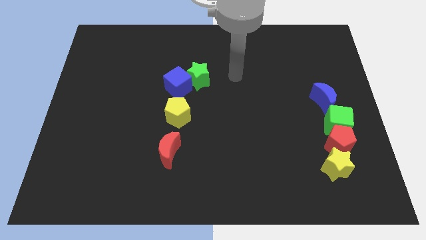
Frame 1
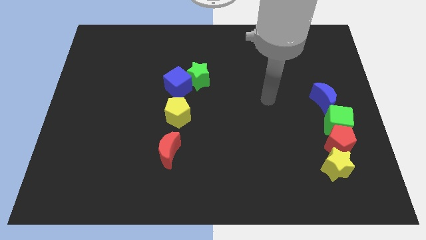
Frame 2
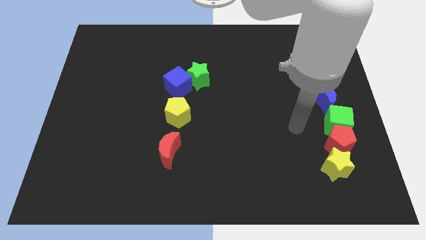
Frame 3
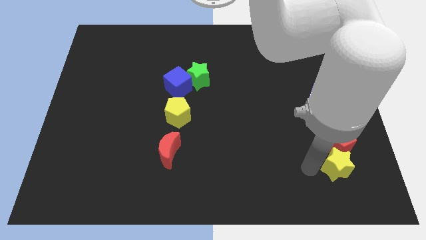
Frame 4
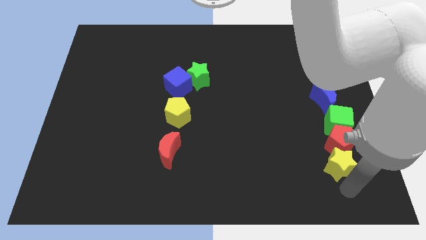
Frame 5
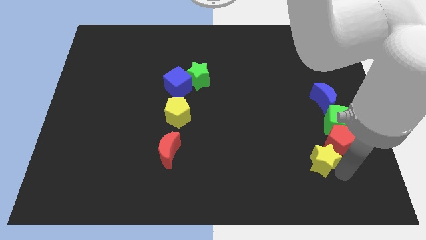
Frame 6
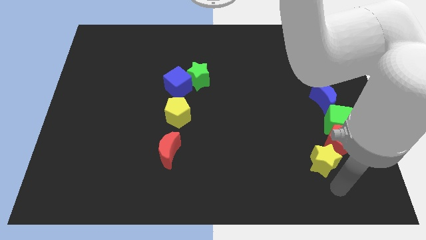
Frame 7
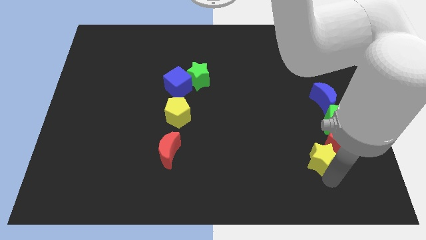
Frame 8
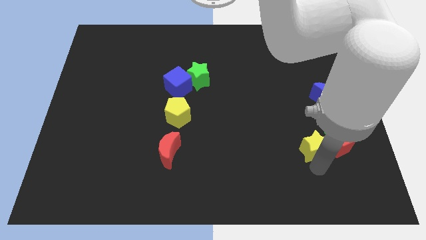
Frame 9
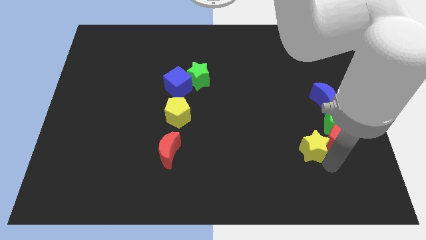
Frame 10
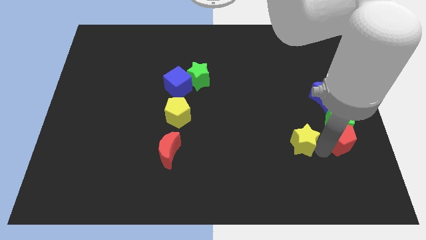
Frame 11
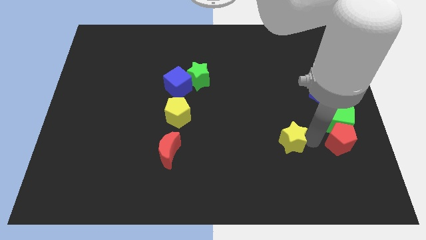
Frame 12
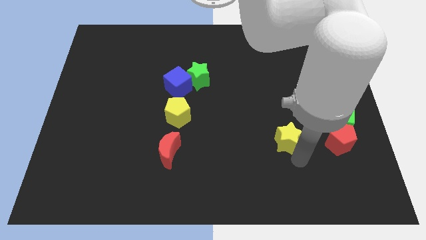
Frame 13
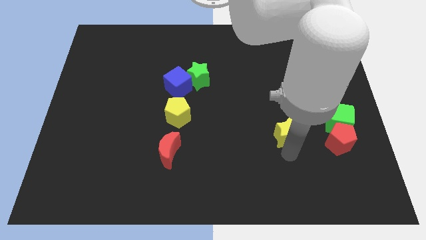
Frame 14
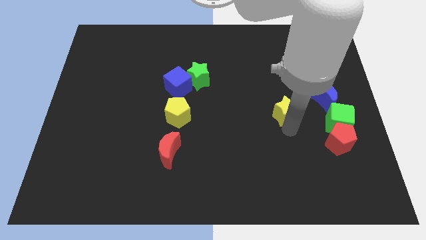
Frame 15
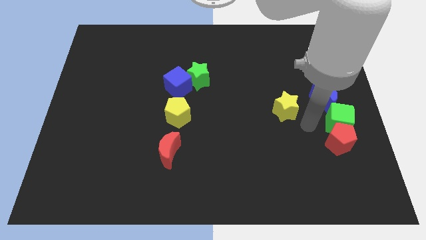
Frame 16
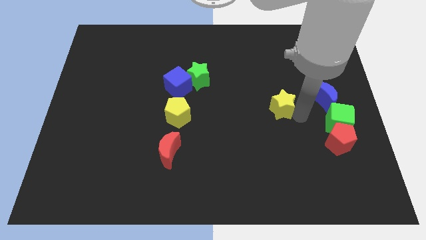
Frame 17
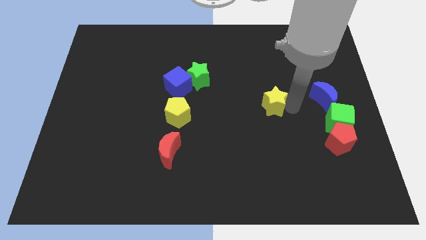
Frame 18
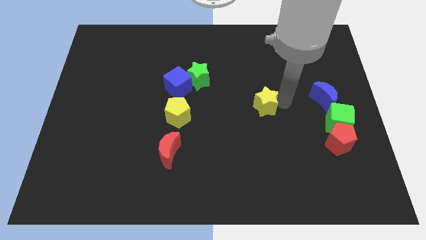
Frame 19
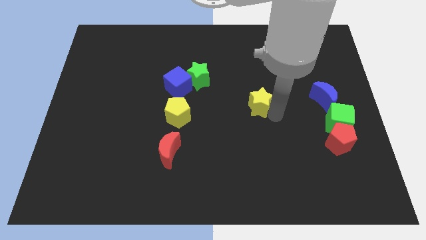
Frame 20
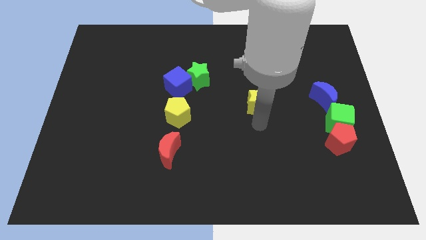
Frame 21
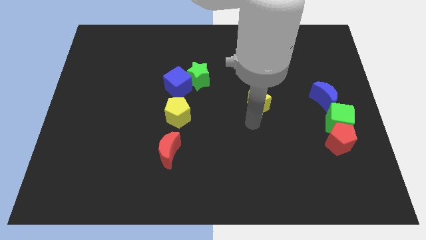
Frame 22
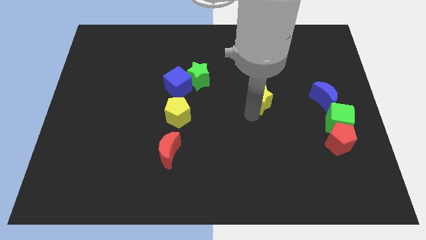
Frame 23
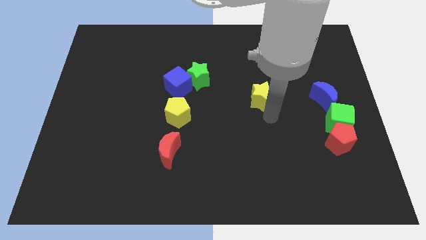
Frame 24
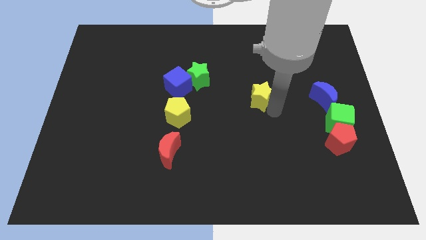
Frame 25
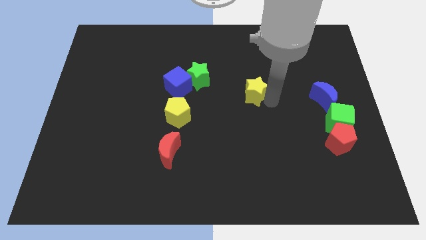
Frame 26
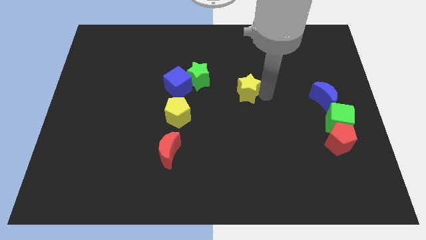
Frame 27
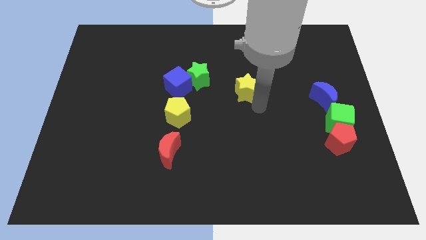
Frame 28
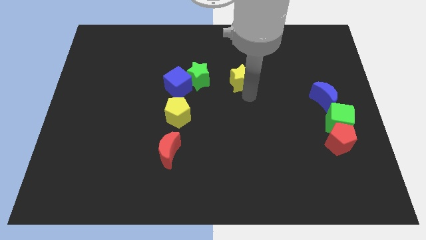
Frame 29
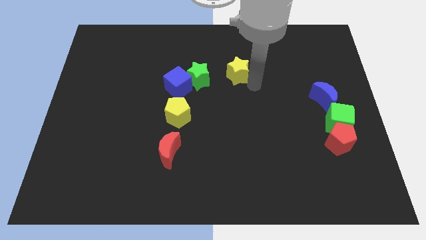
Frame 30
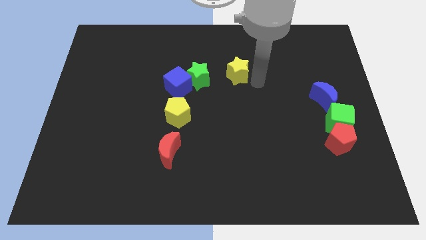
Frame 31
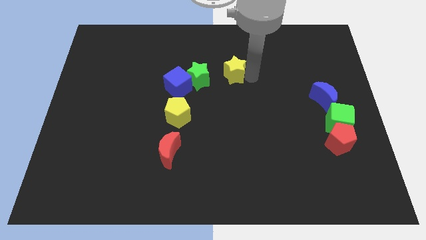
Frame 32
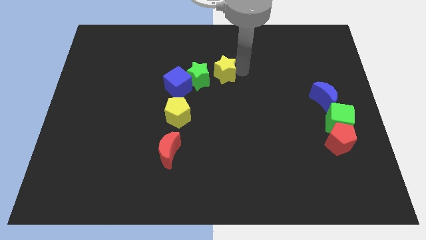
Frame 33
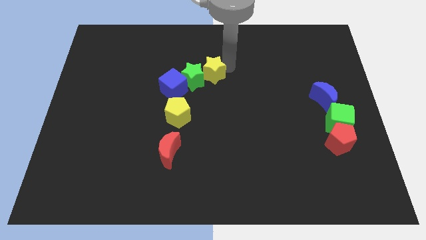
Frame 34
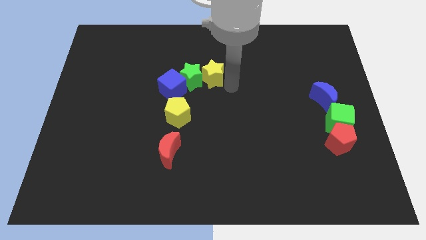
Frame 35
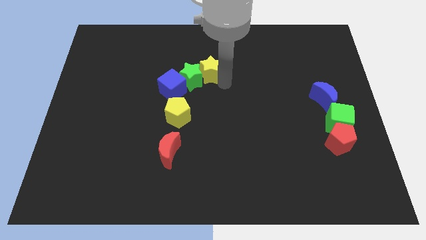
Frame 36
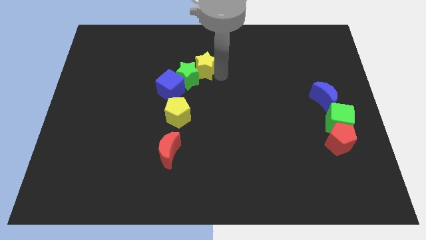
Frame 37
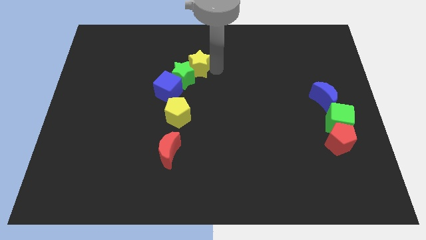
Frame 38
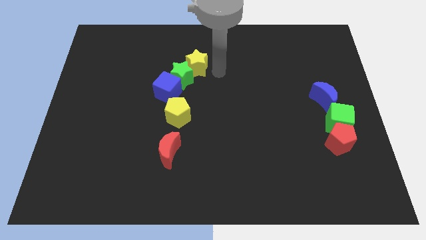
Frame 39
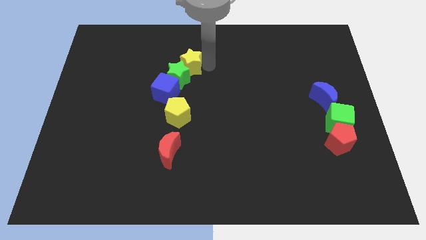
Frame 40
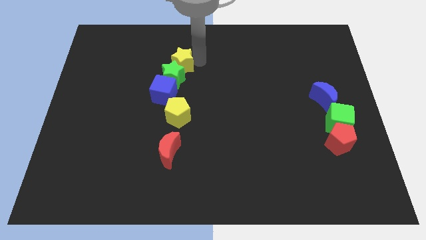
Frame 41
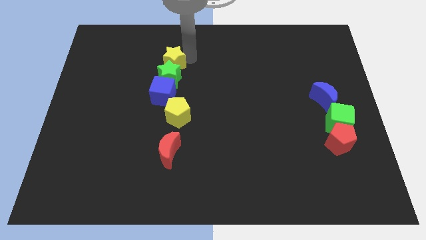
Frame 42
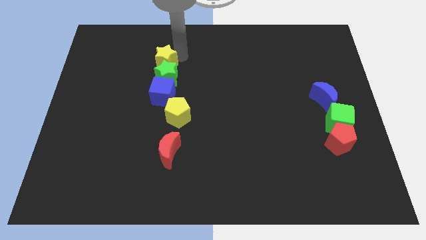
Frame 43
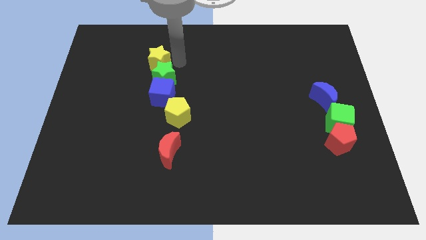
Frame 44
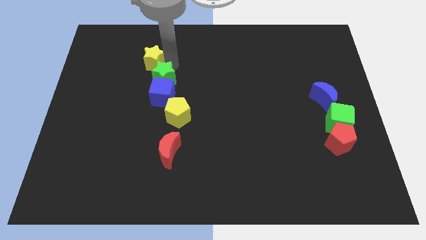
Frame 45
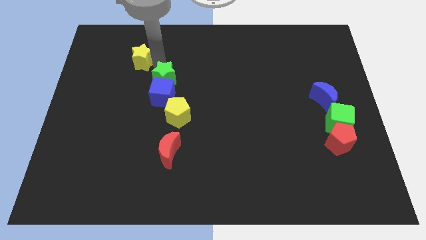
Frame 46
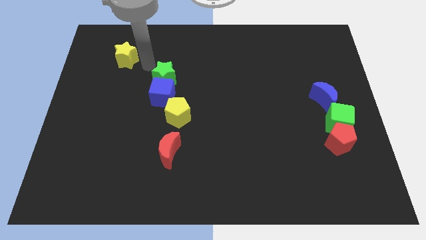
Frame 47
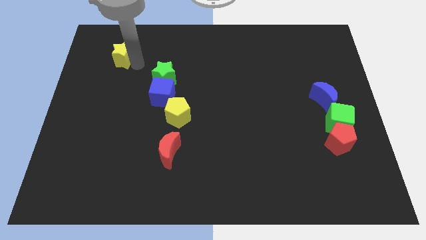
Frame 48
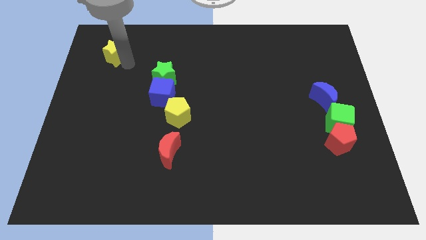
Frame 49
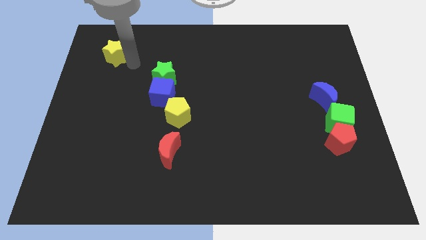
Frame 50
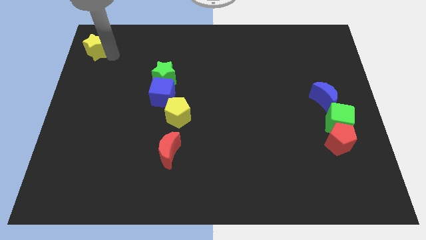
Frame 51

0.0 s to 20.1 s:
slide the yellow star to the top left
